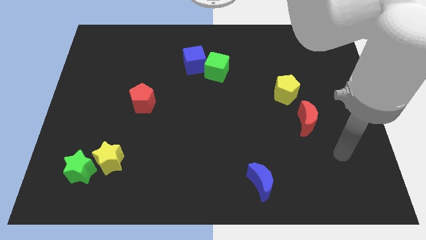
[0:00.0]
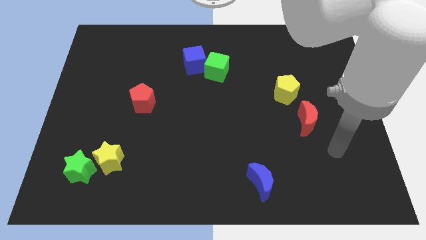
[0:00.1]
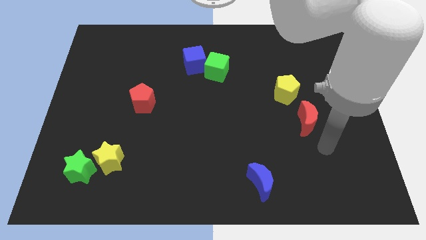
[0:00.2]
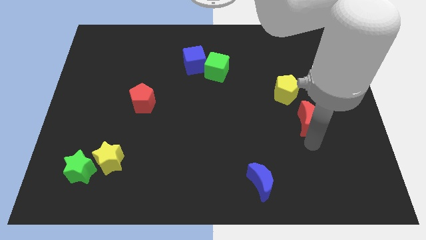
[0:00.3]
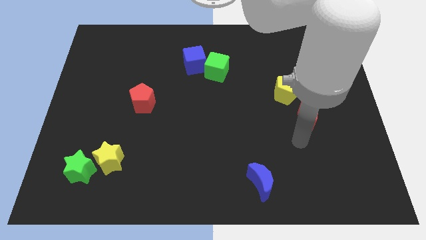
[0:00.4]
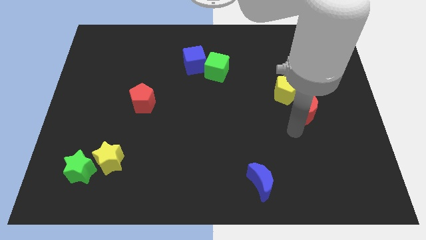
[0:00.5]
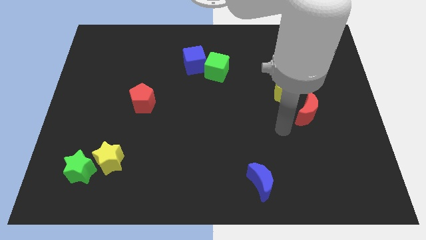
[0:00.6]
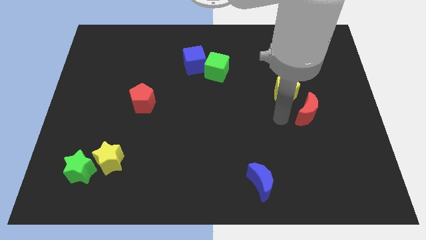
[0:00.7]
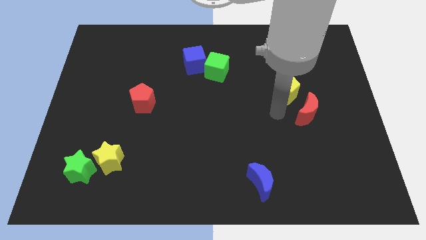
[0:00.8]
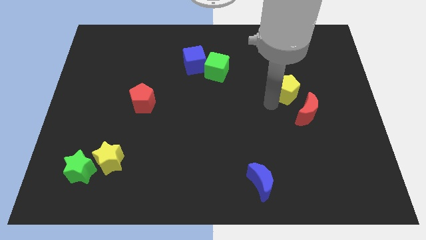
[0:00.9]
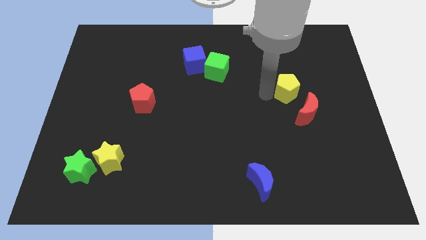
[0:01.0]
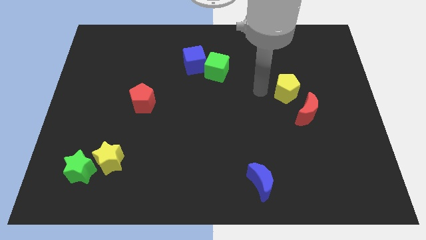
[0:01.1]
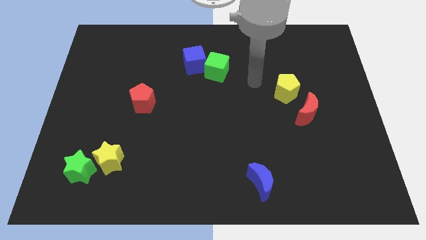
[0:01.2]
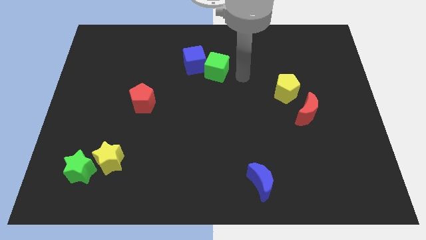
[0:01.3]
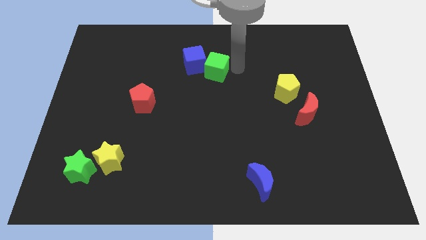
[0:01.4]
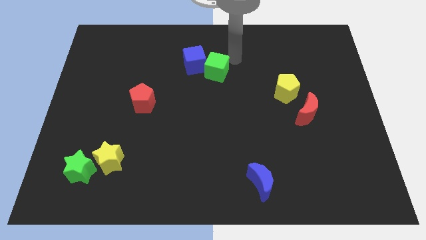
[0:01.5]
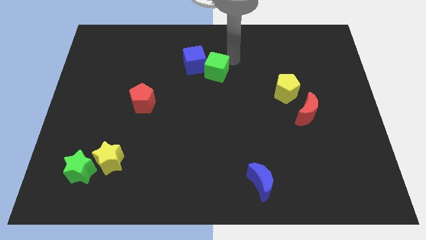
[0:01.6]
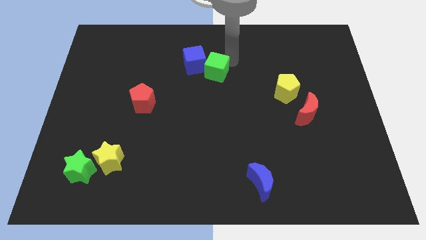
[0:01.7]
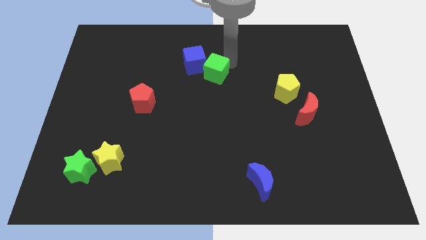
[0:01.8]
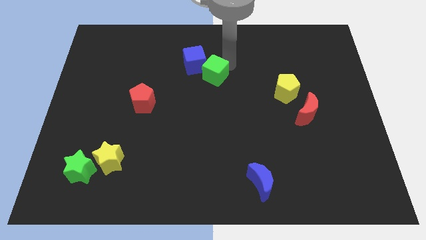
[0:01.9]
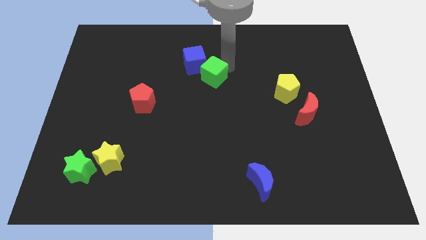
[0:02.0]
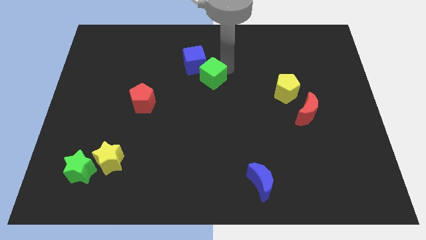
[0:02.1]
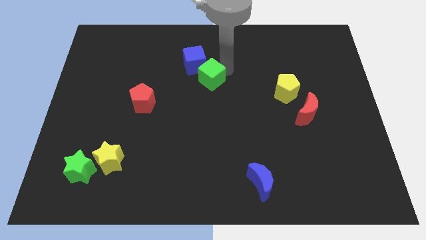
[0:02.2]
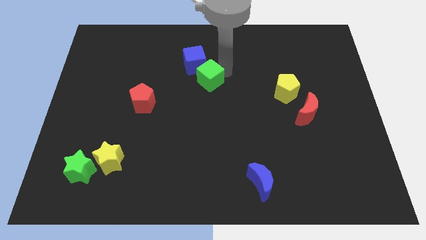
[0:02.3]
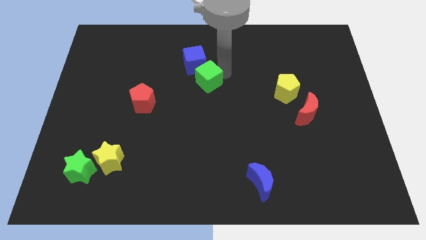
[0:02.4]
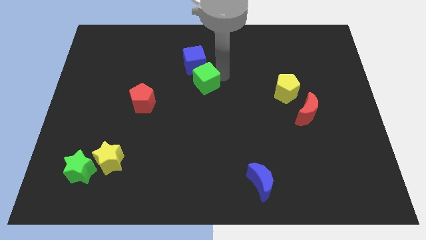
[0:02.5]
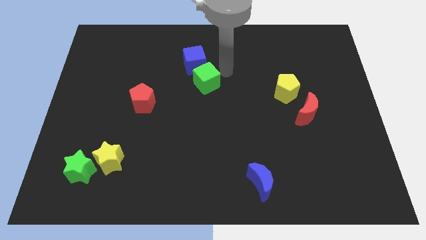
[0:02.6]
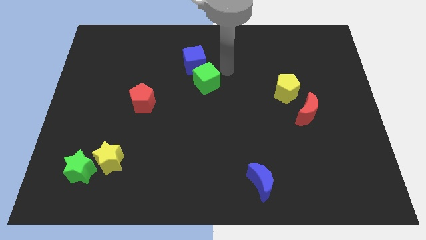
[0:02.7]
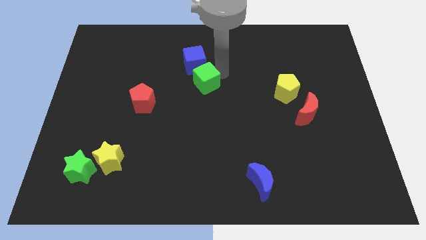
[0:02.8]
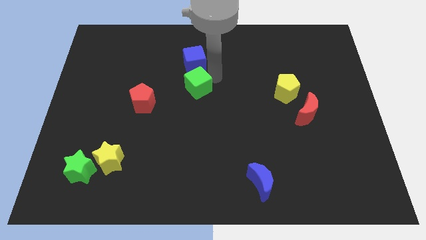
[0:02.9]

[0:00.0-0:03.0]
move the green cube diagonally down and left slightly

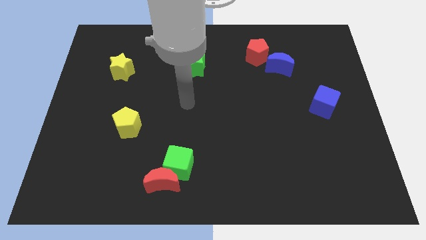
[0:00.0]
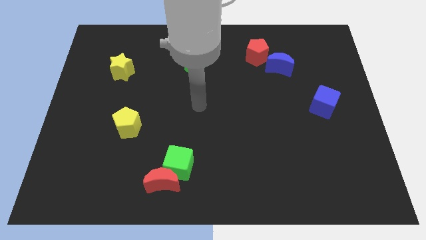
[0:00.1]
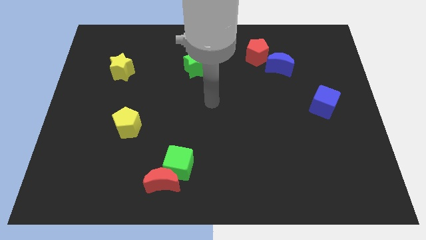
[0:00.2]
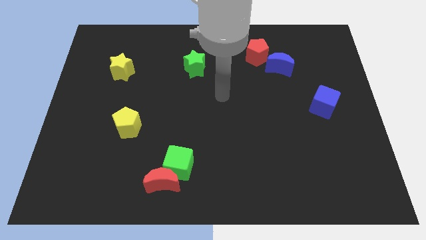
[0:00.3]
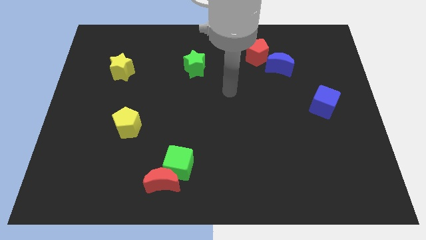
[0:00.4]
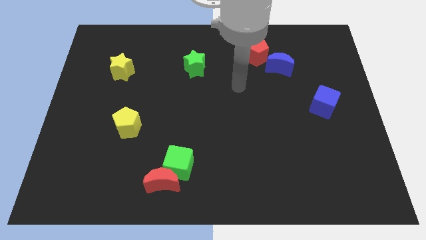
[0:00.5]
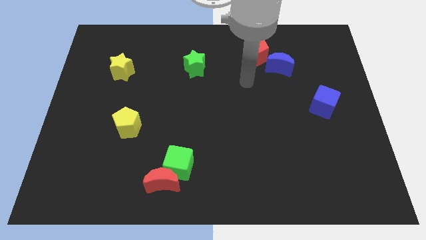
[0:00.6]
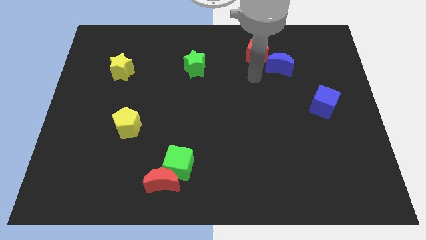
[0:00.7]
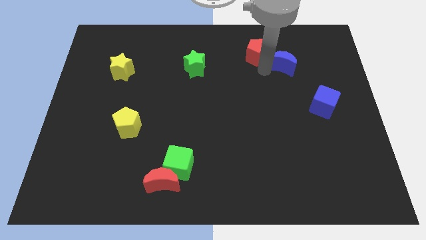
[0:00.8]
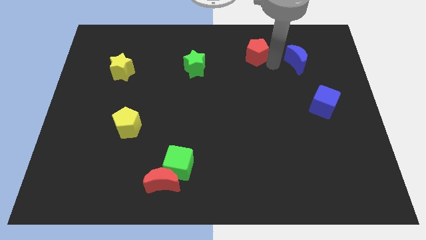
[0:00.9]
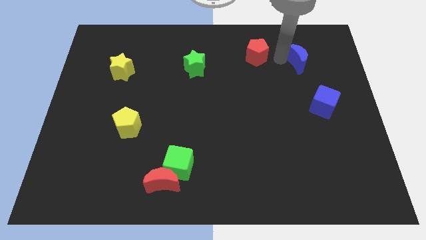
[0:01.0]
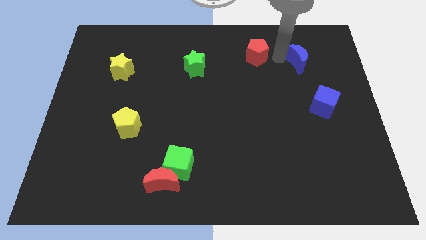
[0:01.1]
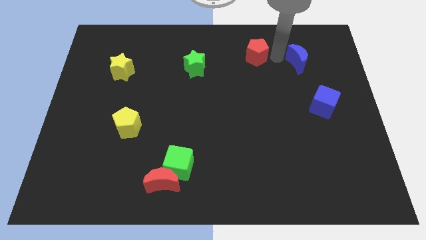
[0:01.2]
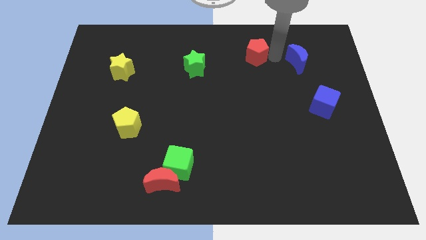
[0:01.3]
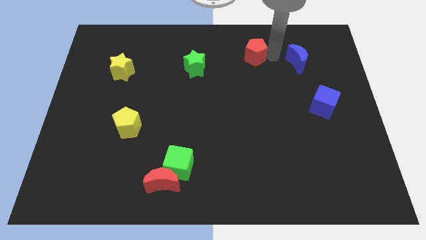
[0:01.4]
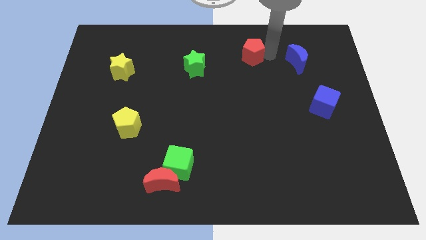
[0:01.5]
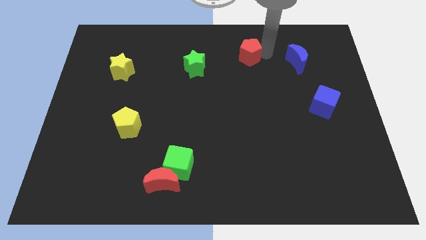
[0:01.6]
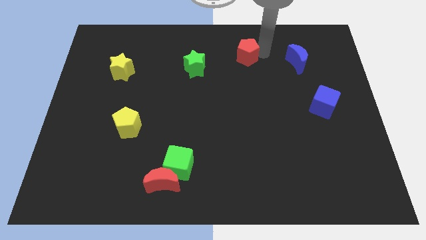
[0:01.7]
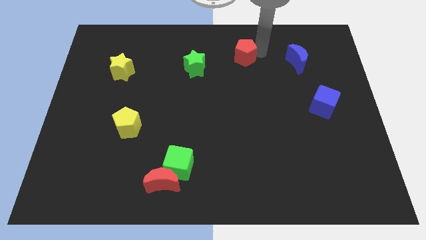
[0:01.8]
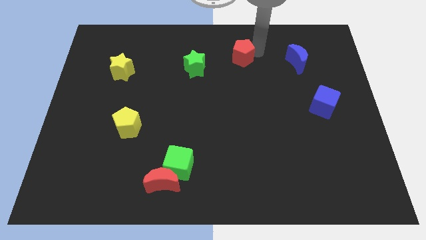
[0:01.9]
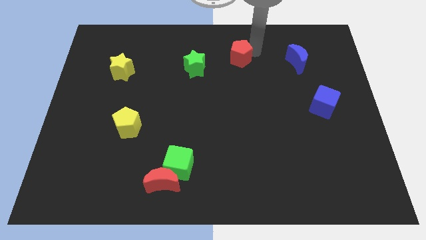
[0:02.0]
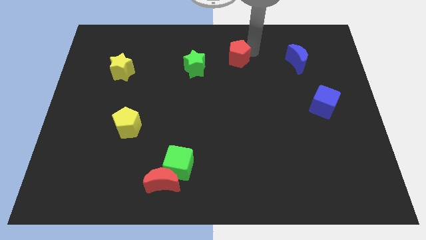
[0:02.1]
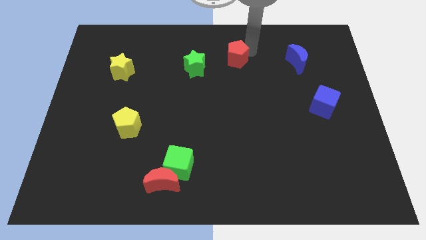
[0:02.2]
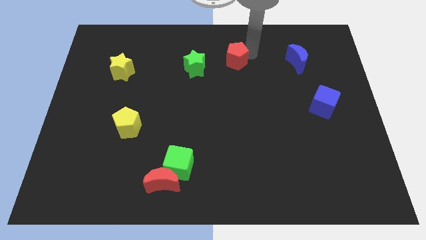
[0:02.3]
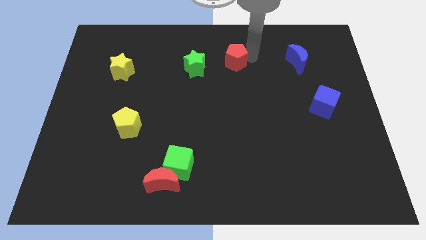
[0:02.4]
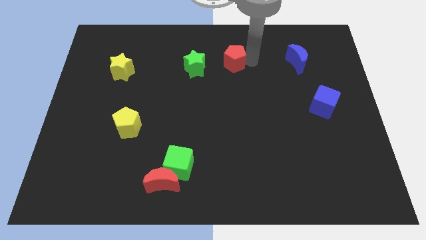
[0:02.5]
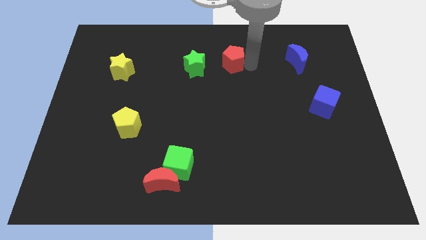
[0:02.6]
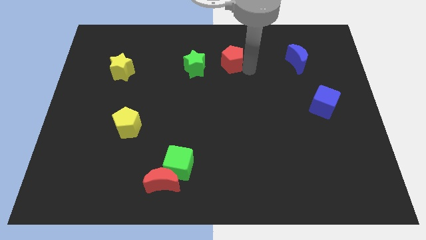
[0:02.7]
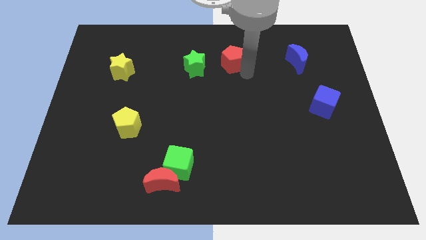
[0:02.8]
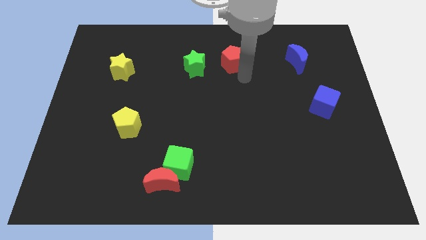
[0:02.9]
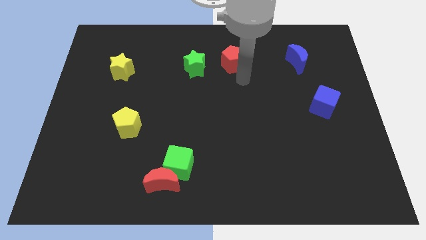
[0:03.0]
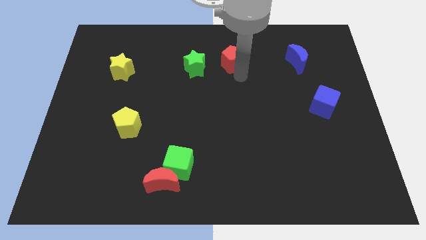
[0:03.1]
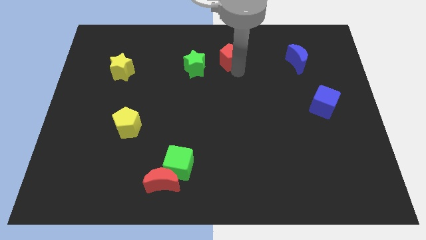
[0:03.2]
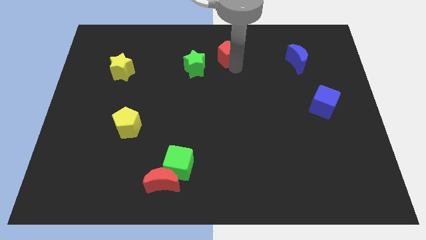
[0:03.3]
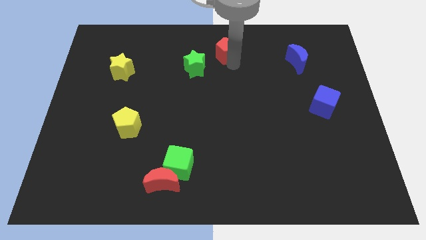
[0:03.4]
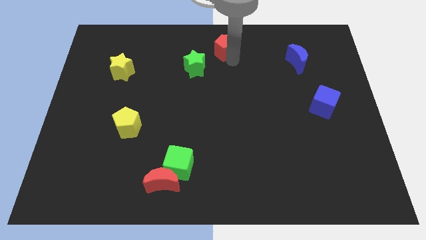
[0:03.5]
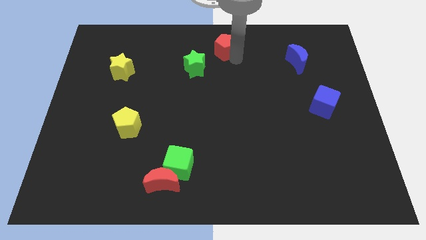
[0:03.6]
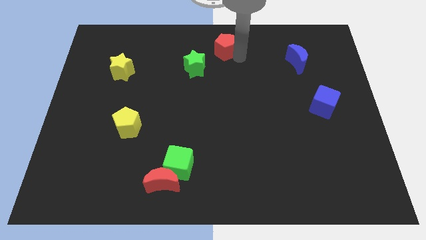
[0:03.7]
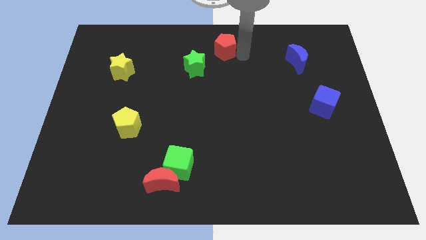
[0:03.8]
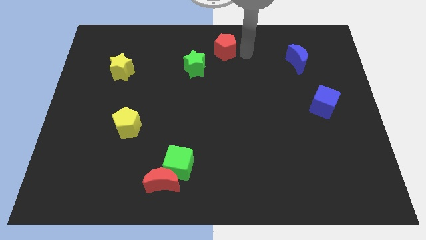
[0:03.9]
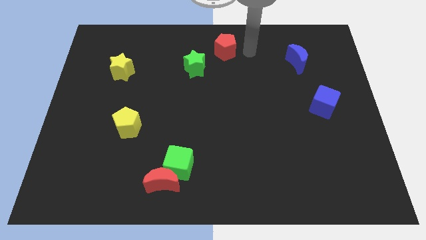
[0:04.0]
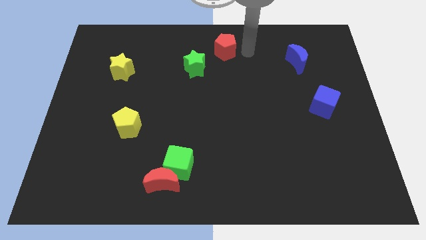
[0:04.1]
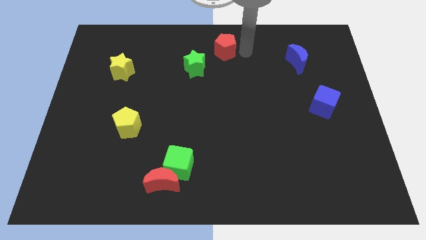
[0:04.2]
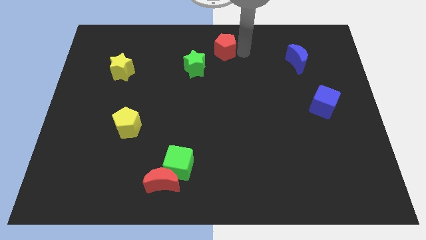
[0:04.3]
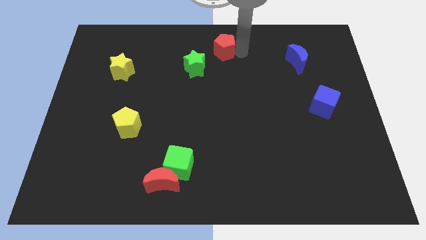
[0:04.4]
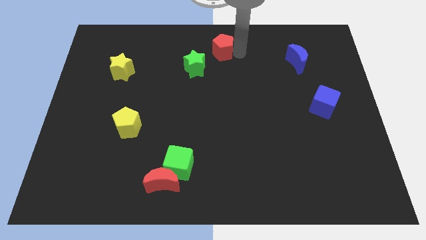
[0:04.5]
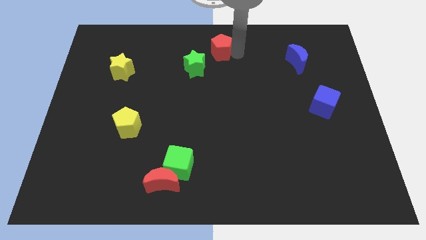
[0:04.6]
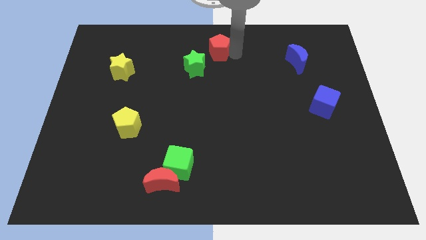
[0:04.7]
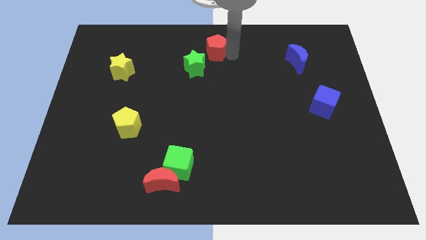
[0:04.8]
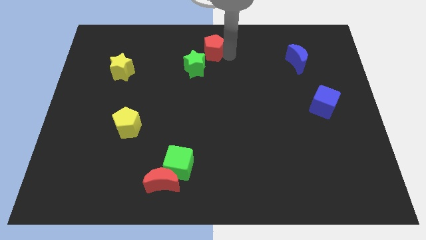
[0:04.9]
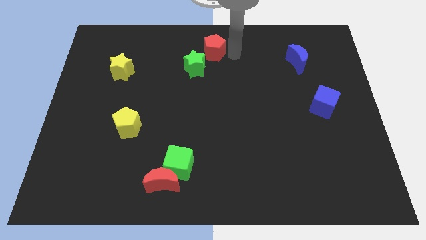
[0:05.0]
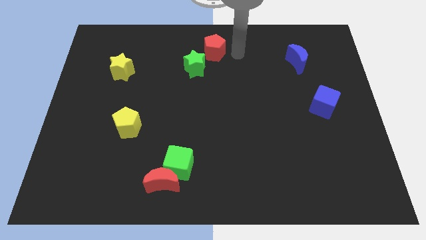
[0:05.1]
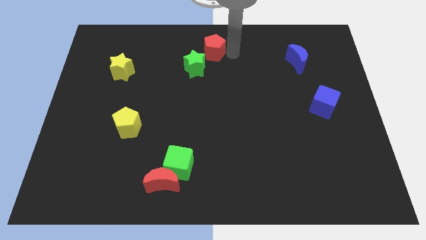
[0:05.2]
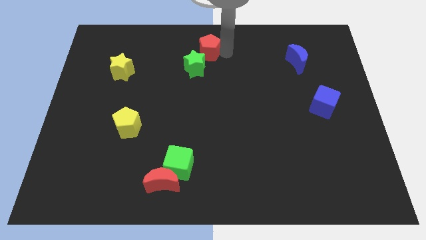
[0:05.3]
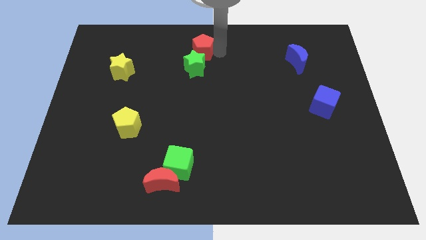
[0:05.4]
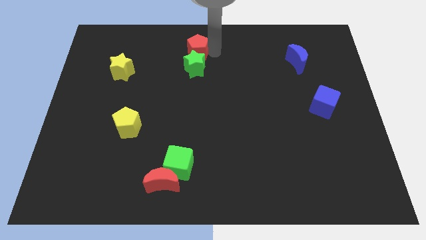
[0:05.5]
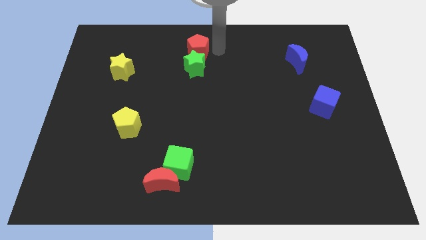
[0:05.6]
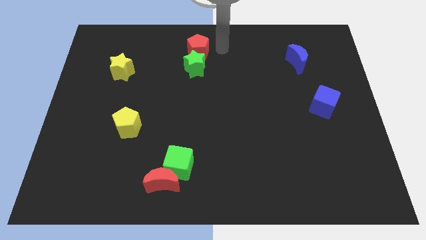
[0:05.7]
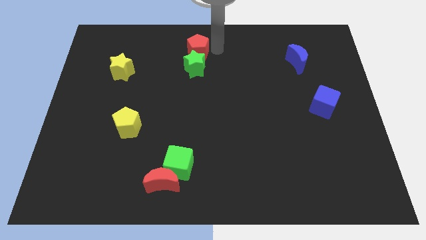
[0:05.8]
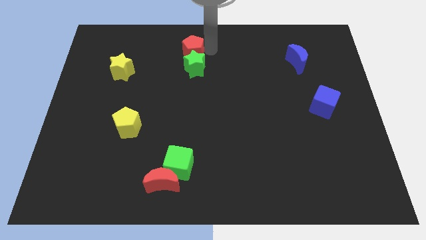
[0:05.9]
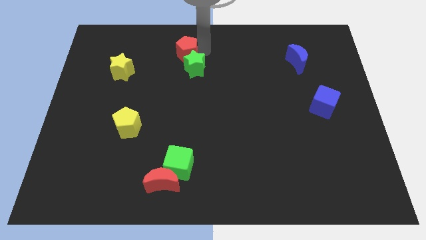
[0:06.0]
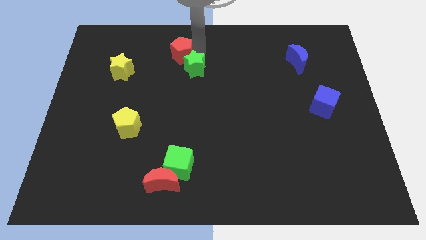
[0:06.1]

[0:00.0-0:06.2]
slide the red pentagon left
